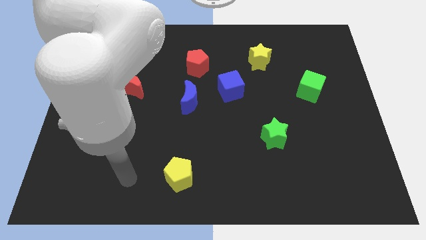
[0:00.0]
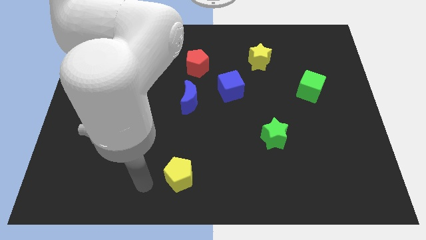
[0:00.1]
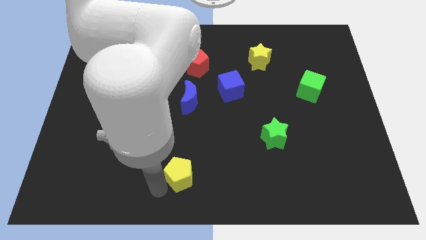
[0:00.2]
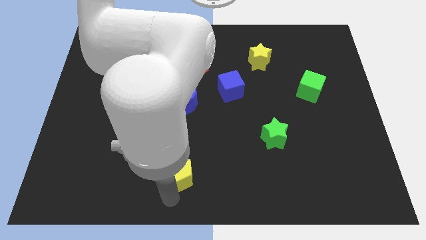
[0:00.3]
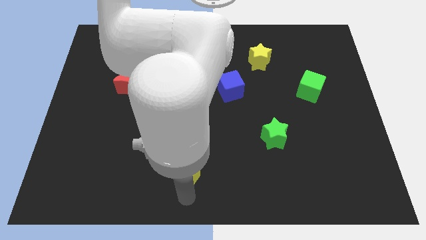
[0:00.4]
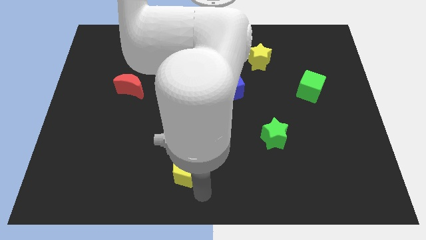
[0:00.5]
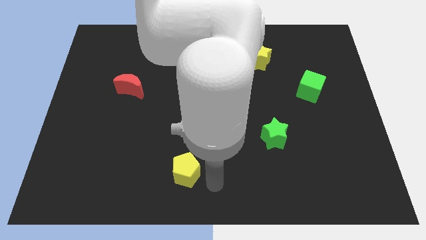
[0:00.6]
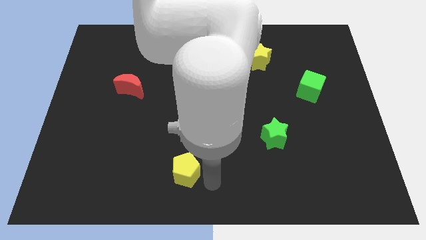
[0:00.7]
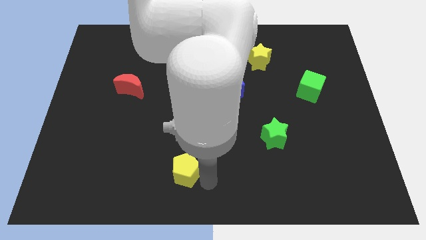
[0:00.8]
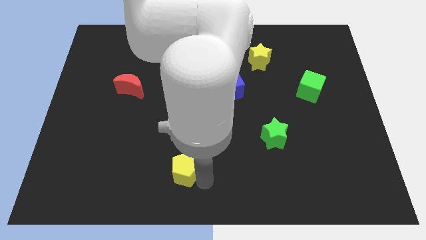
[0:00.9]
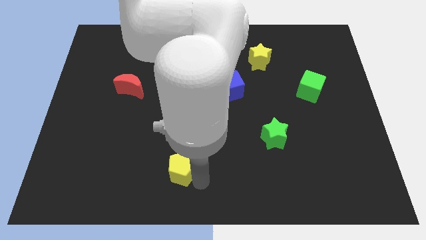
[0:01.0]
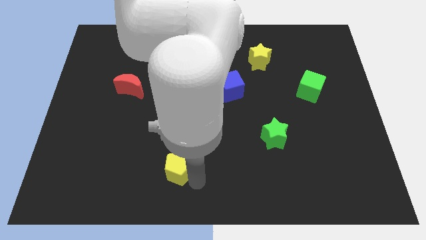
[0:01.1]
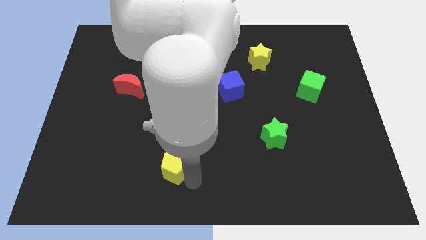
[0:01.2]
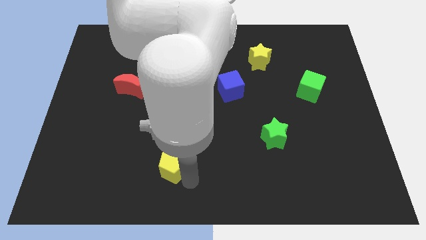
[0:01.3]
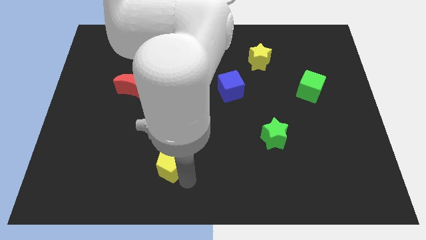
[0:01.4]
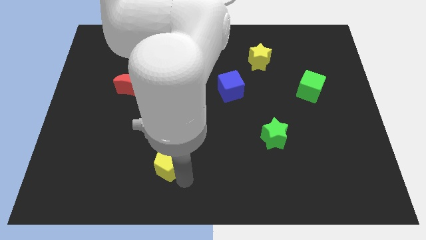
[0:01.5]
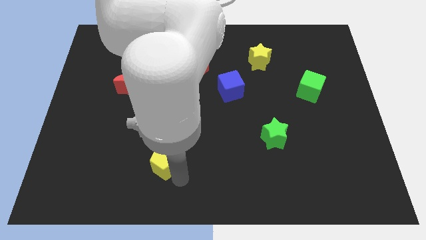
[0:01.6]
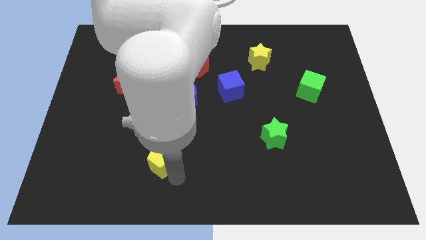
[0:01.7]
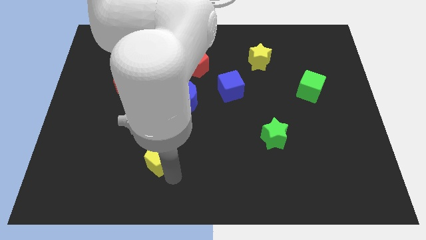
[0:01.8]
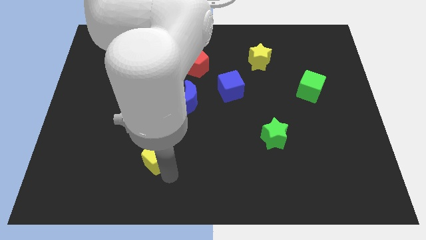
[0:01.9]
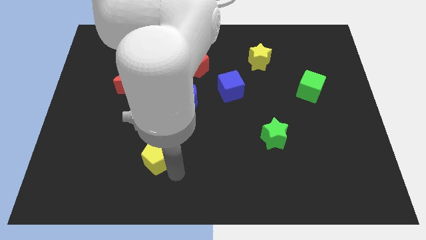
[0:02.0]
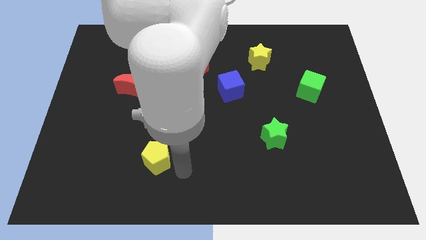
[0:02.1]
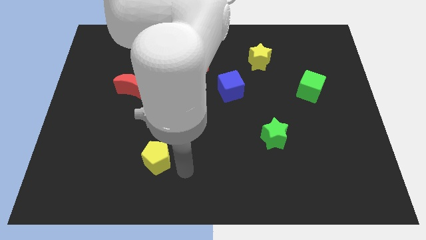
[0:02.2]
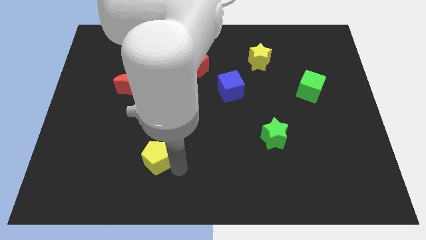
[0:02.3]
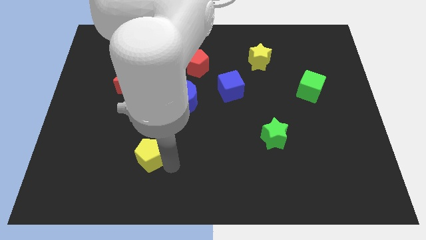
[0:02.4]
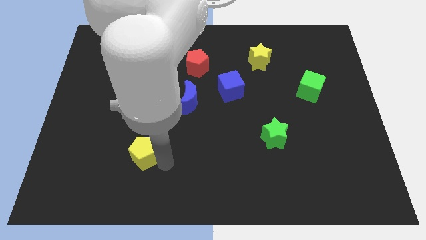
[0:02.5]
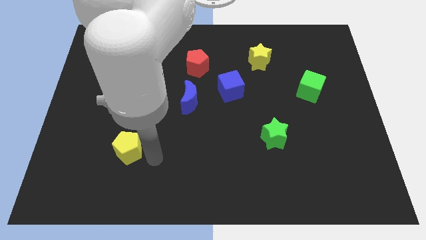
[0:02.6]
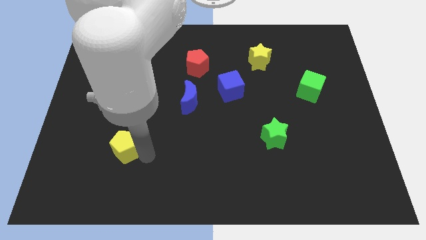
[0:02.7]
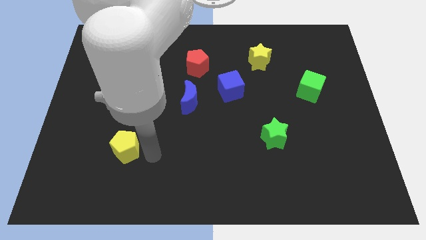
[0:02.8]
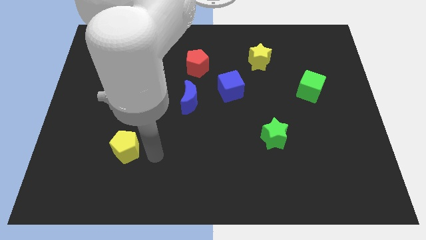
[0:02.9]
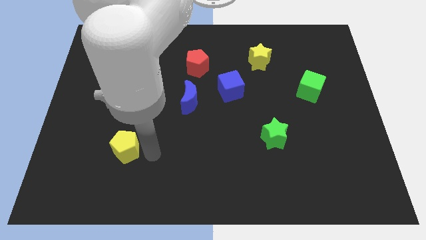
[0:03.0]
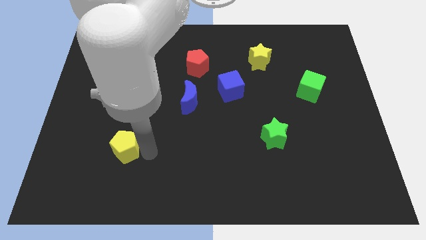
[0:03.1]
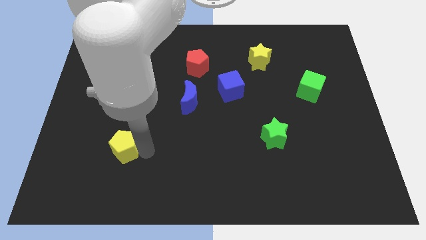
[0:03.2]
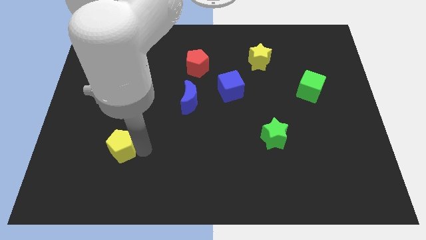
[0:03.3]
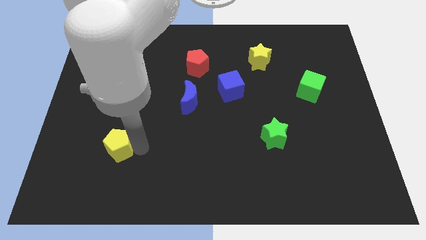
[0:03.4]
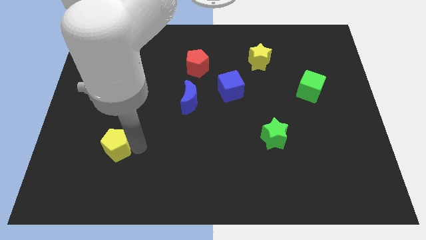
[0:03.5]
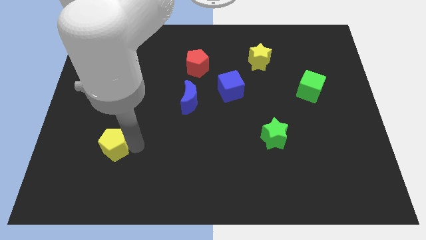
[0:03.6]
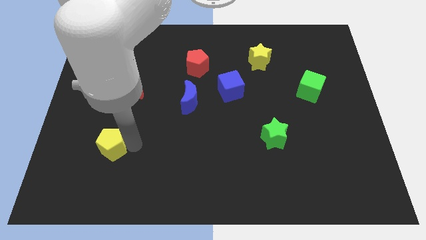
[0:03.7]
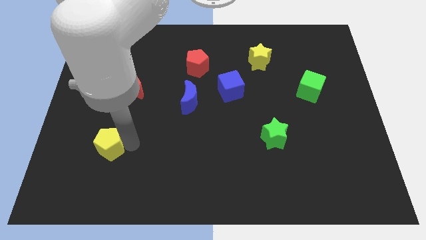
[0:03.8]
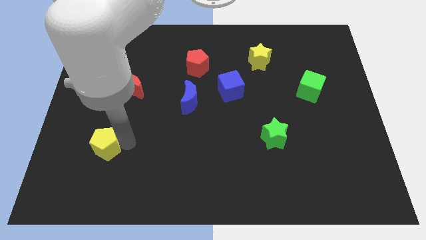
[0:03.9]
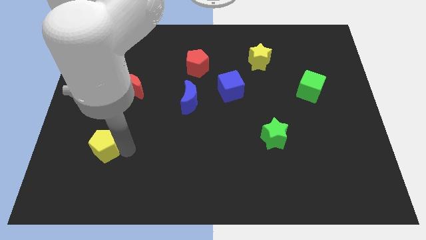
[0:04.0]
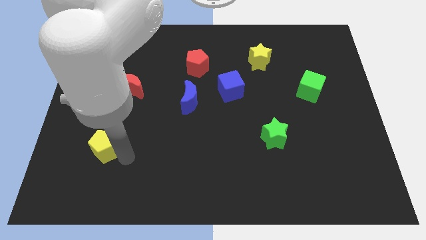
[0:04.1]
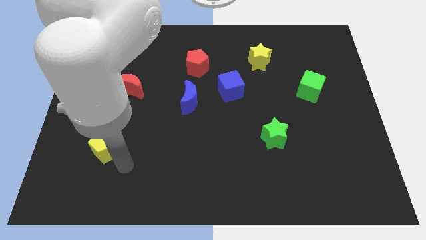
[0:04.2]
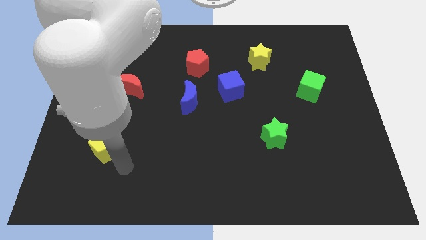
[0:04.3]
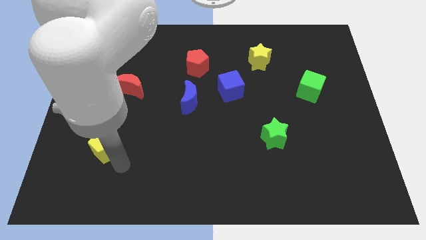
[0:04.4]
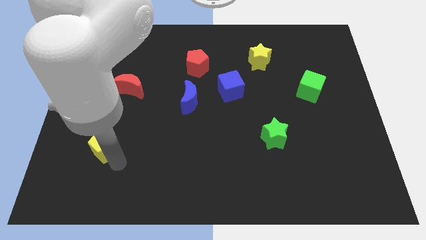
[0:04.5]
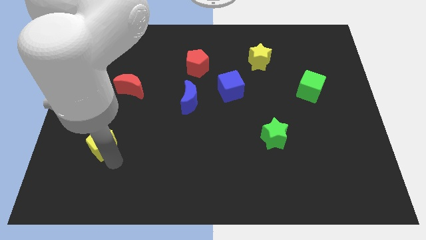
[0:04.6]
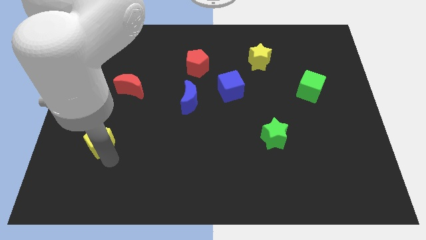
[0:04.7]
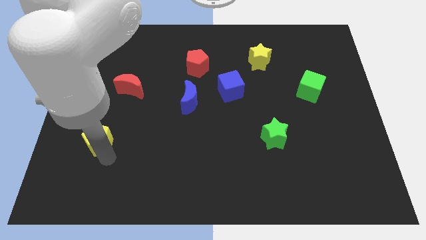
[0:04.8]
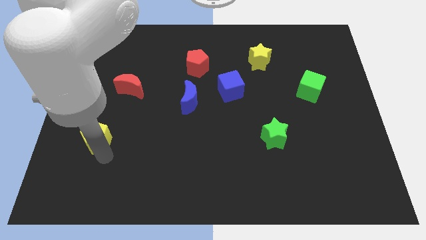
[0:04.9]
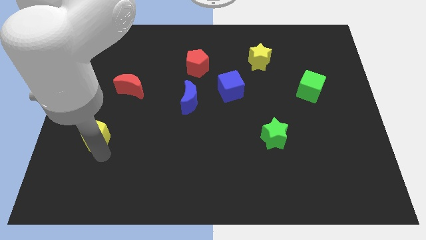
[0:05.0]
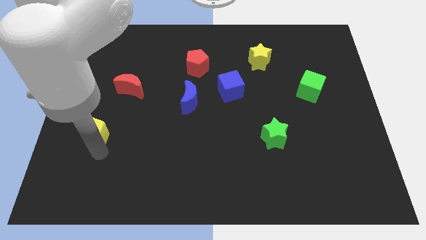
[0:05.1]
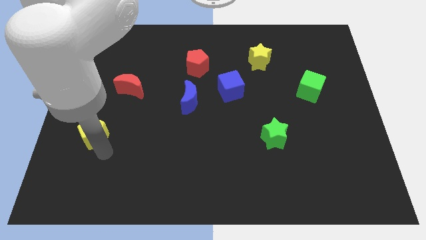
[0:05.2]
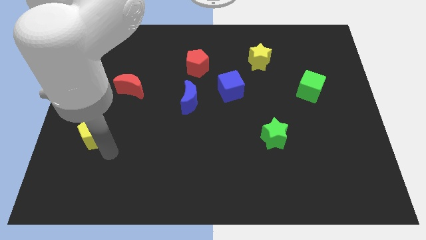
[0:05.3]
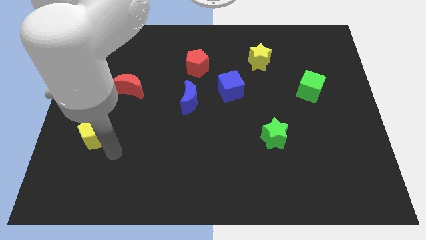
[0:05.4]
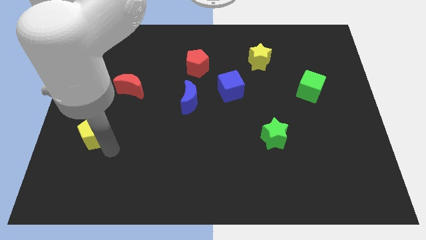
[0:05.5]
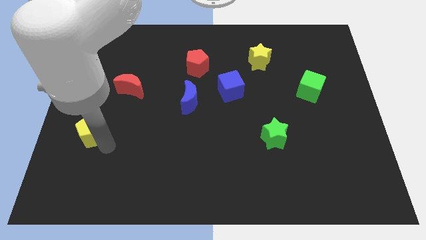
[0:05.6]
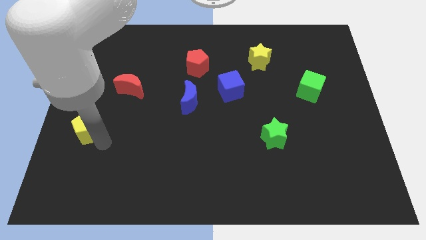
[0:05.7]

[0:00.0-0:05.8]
move the yellow pentagon to the center left

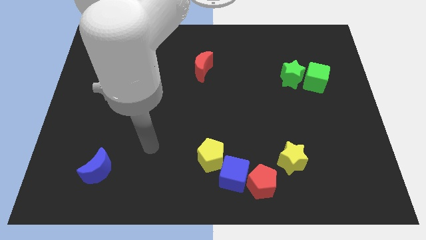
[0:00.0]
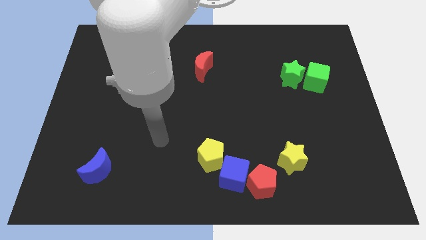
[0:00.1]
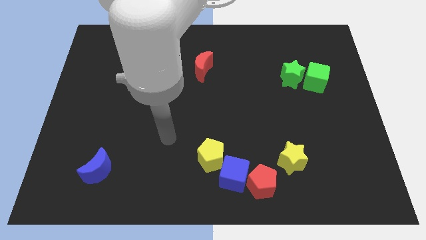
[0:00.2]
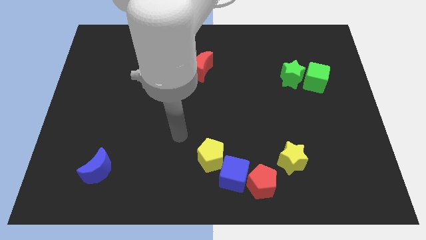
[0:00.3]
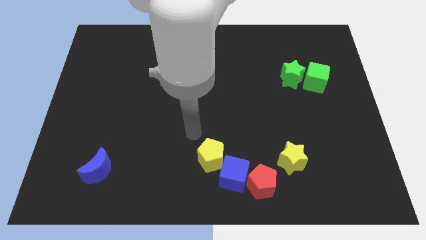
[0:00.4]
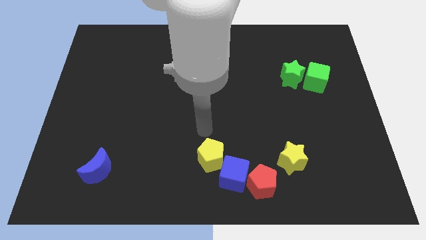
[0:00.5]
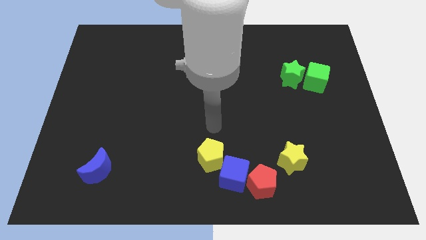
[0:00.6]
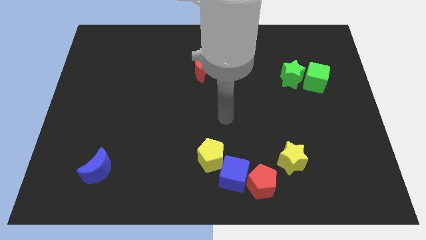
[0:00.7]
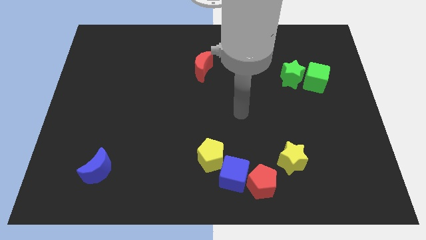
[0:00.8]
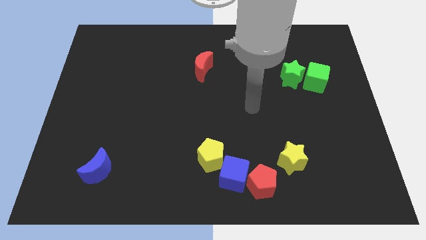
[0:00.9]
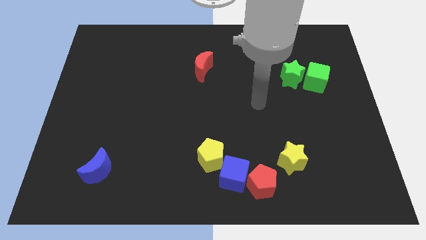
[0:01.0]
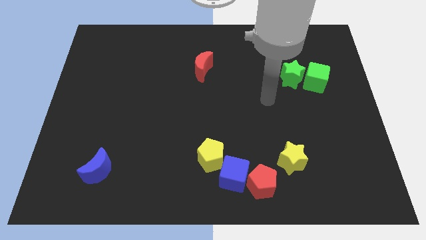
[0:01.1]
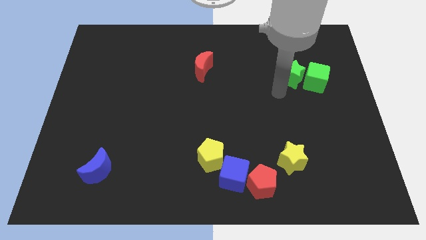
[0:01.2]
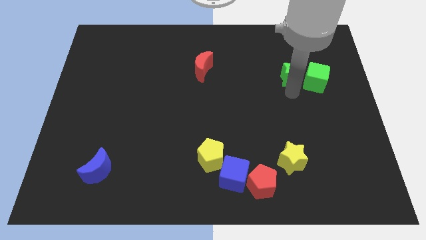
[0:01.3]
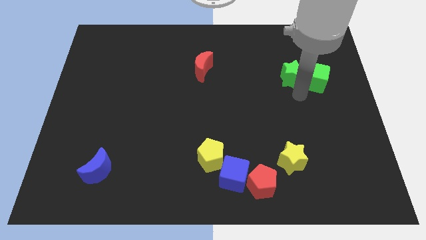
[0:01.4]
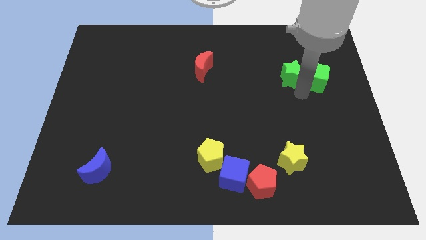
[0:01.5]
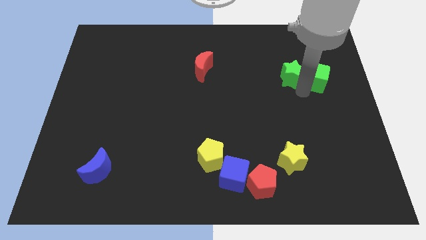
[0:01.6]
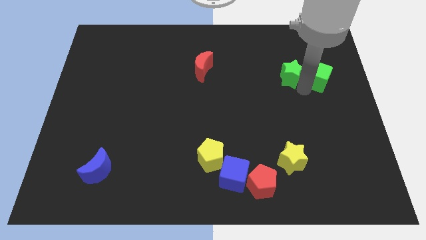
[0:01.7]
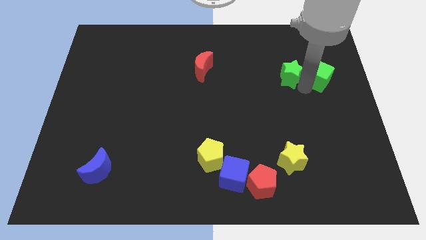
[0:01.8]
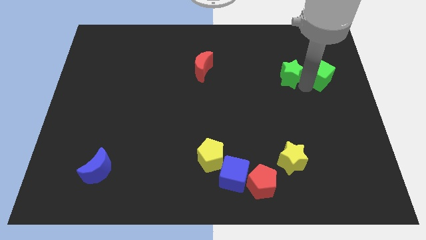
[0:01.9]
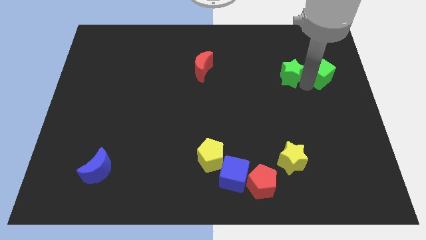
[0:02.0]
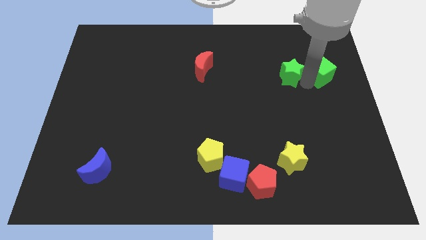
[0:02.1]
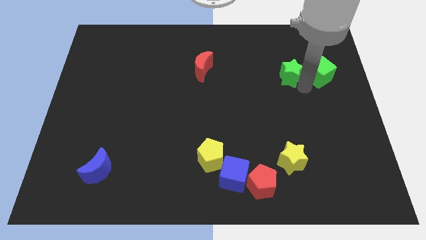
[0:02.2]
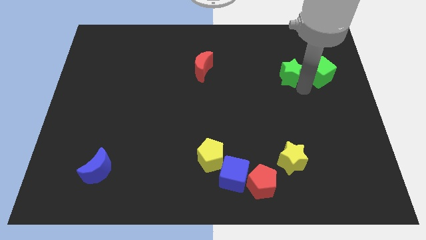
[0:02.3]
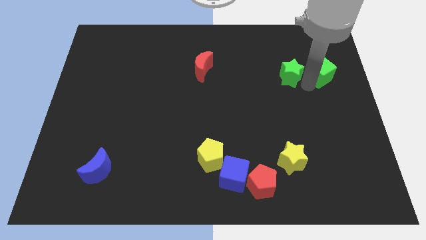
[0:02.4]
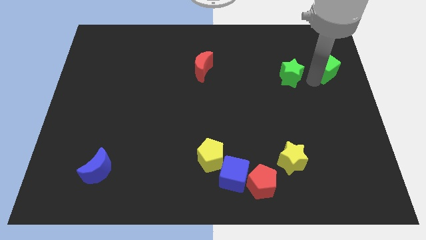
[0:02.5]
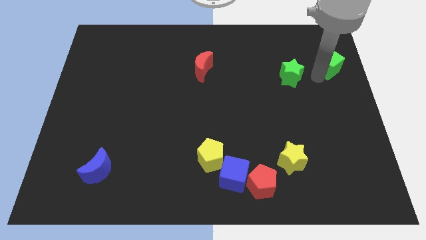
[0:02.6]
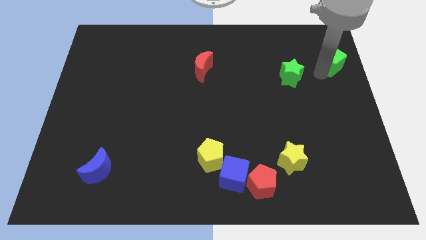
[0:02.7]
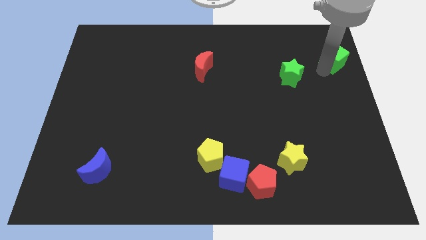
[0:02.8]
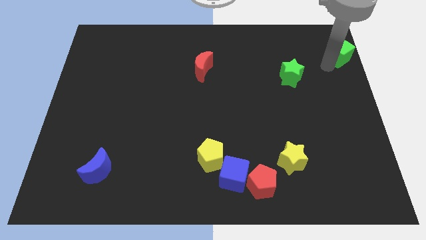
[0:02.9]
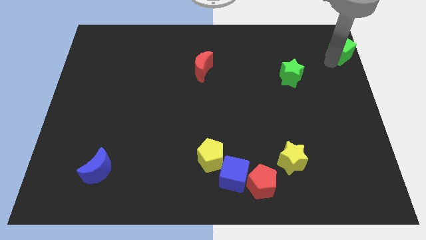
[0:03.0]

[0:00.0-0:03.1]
push the green cube to the top right
